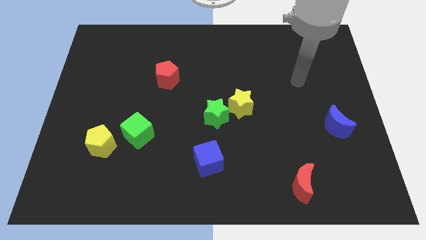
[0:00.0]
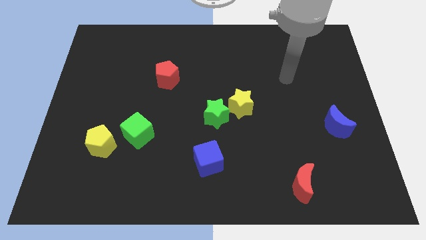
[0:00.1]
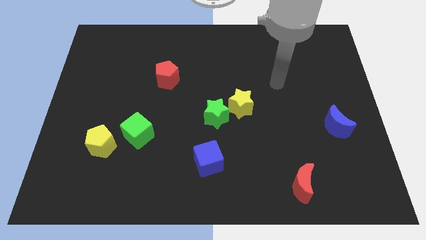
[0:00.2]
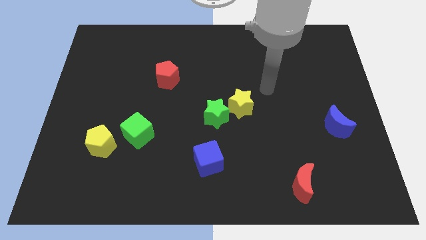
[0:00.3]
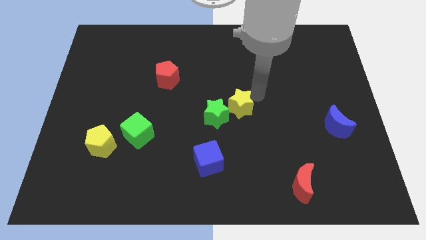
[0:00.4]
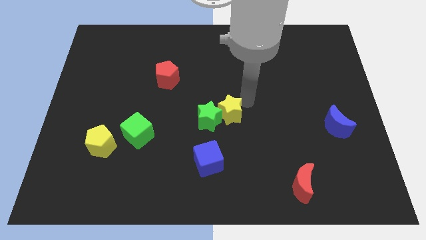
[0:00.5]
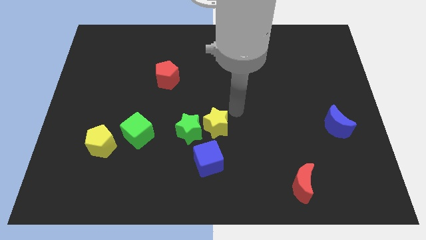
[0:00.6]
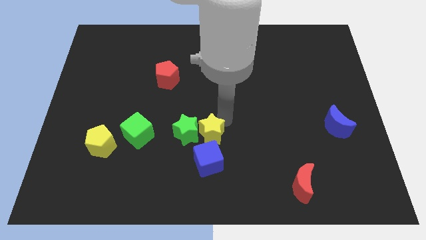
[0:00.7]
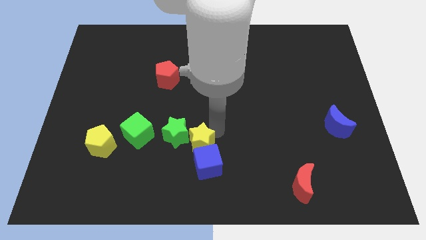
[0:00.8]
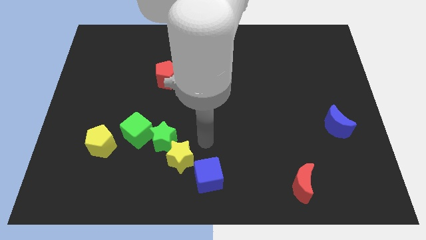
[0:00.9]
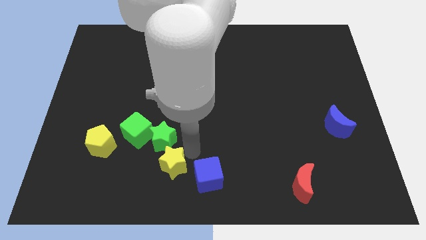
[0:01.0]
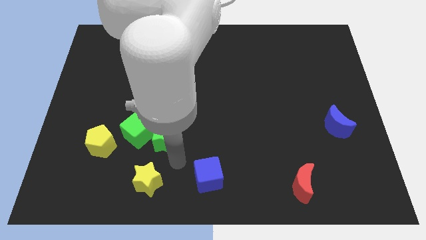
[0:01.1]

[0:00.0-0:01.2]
separate the green star from the yellow star

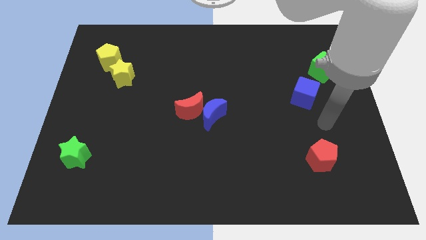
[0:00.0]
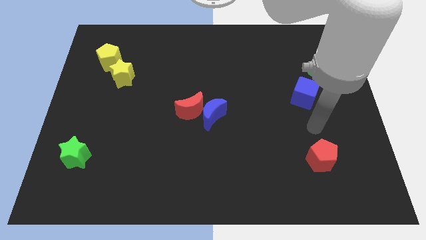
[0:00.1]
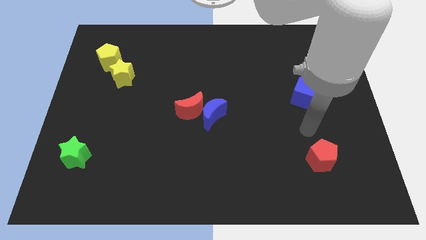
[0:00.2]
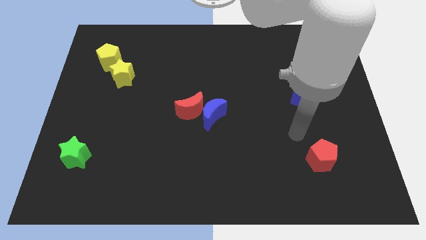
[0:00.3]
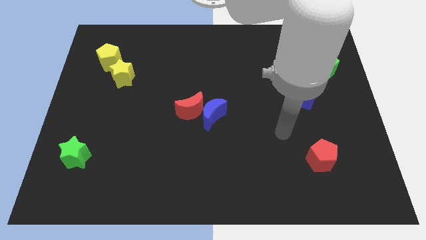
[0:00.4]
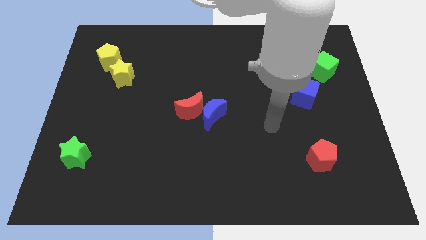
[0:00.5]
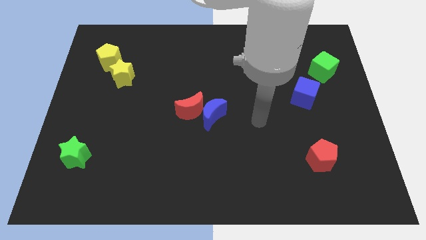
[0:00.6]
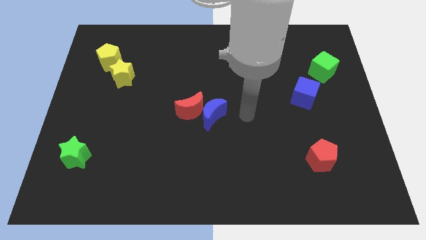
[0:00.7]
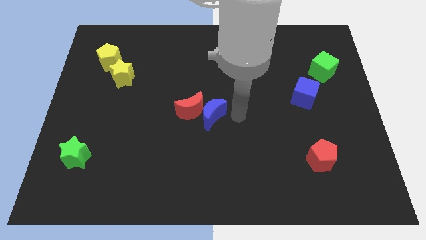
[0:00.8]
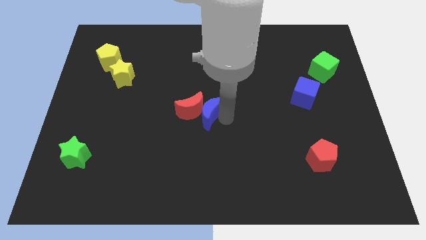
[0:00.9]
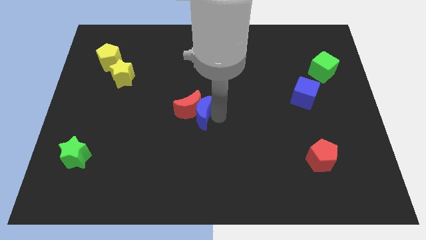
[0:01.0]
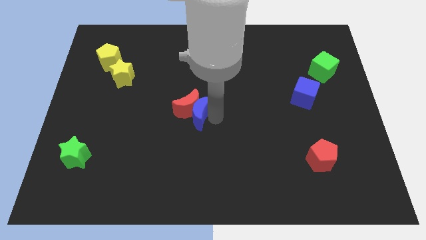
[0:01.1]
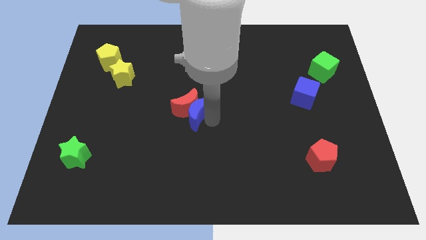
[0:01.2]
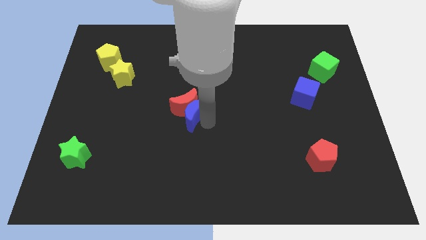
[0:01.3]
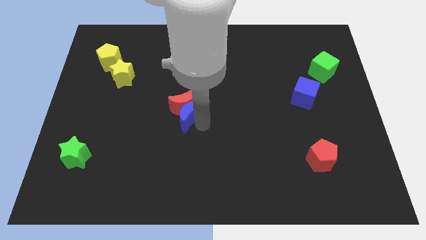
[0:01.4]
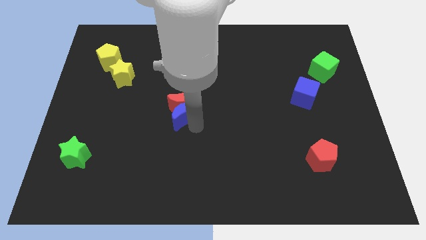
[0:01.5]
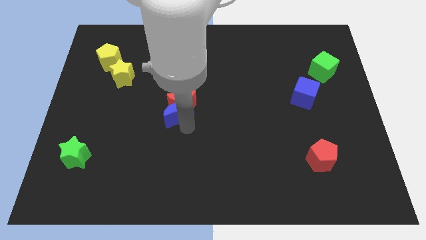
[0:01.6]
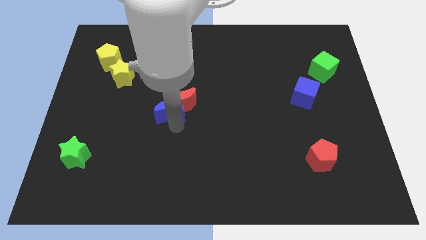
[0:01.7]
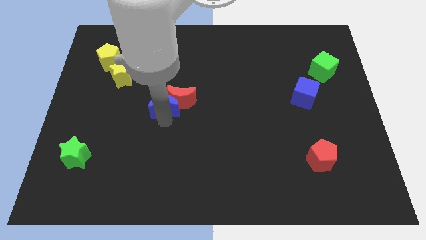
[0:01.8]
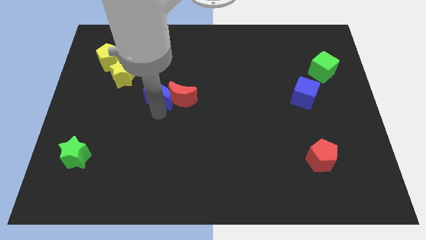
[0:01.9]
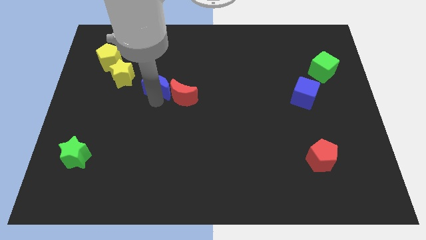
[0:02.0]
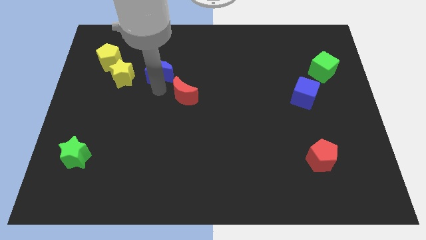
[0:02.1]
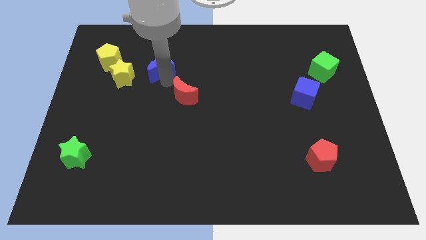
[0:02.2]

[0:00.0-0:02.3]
move the red moon away from the blue moon

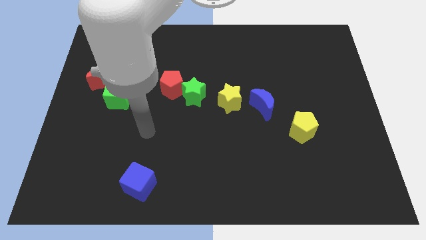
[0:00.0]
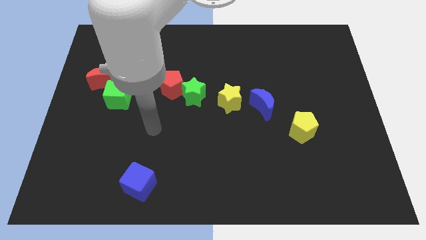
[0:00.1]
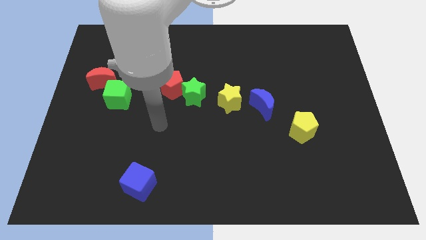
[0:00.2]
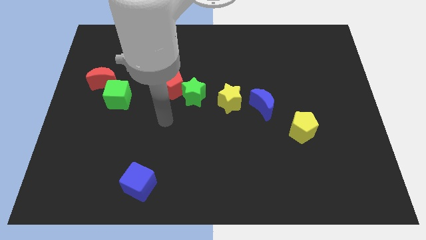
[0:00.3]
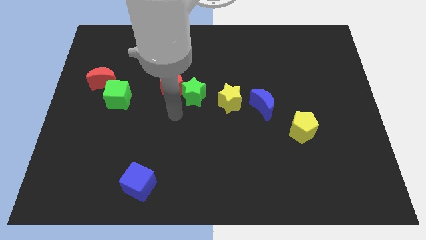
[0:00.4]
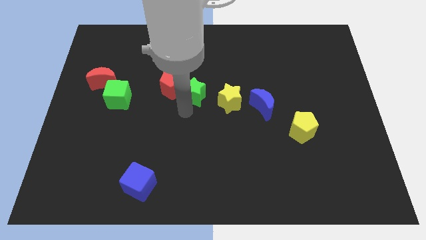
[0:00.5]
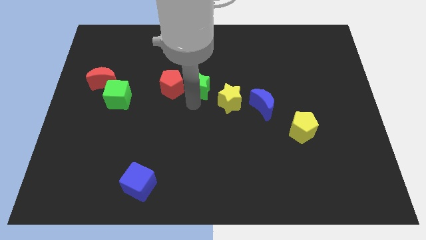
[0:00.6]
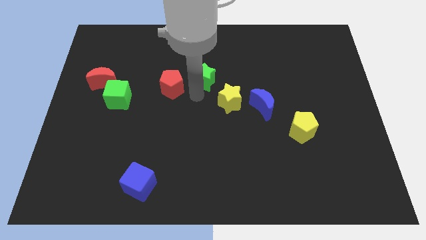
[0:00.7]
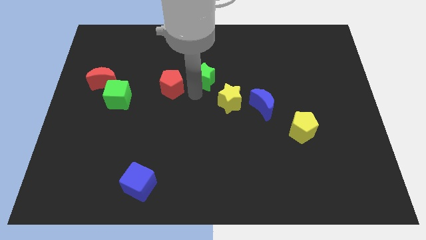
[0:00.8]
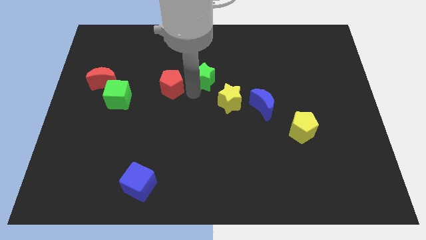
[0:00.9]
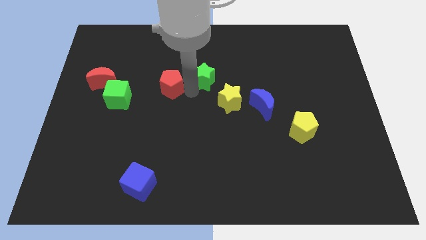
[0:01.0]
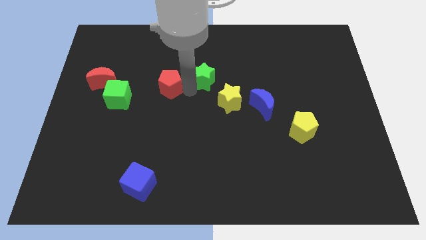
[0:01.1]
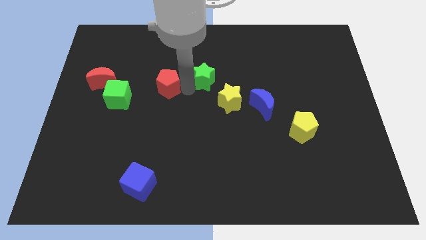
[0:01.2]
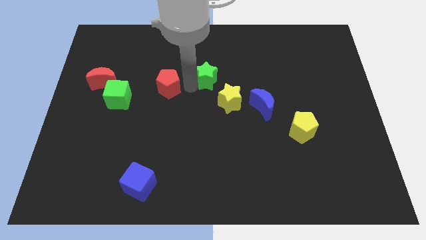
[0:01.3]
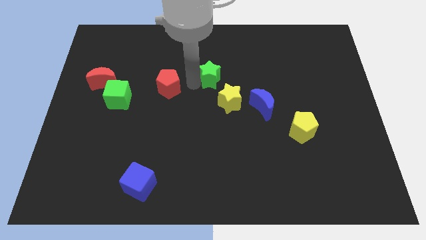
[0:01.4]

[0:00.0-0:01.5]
separate the red pentagon from the green star

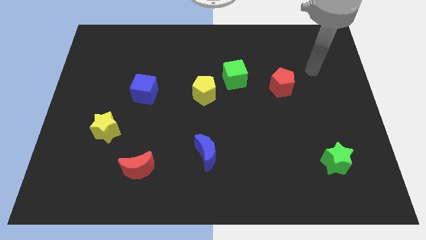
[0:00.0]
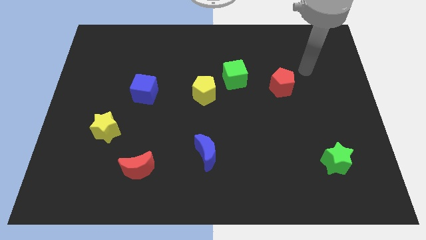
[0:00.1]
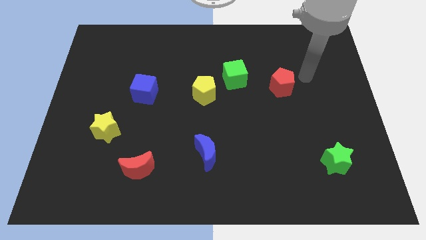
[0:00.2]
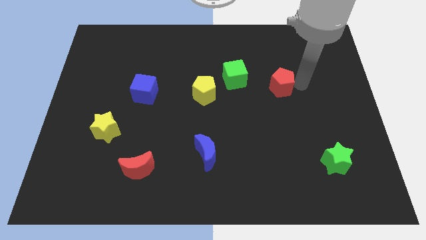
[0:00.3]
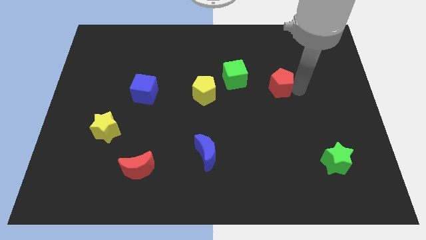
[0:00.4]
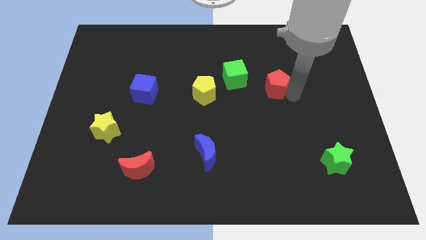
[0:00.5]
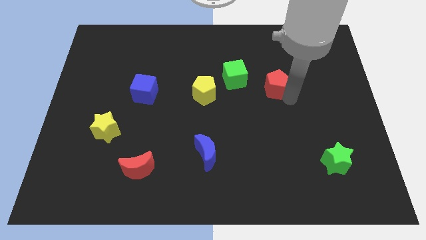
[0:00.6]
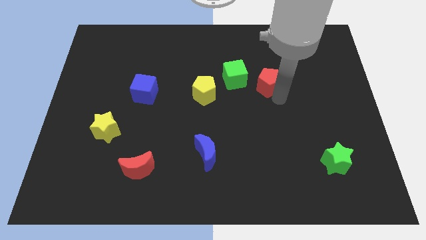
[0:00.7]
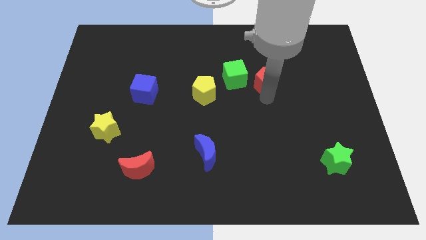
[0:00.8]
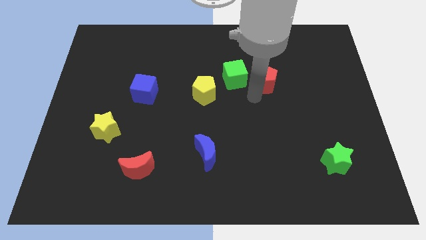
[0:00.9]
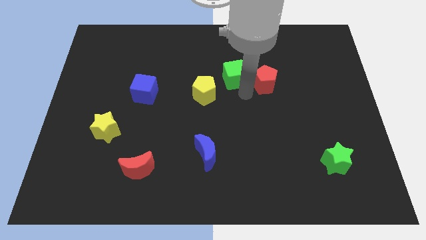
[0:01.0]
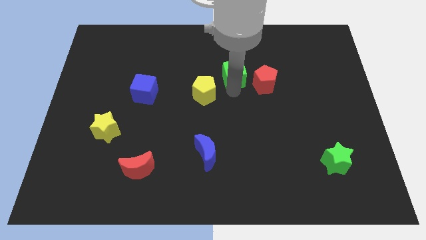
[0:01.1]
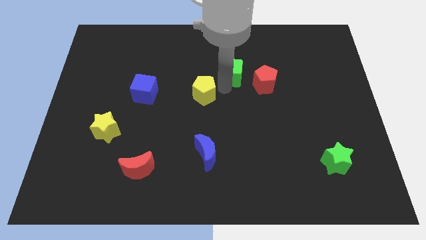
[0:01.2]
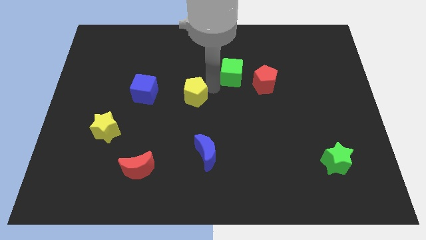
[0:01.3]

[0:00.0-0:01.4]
pull the green cube apart from the yellow pentagon

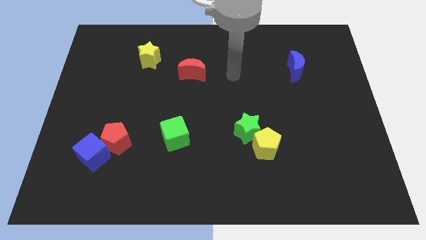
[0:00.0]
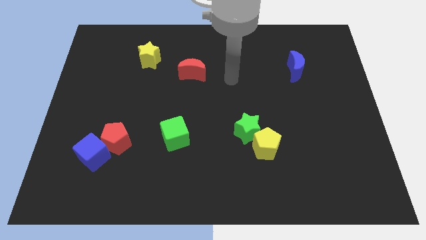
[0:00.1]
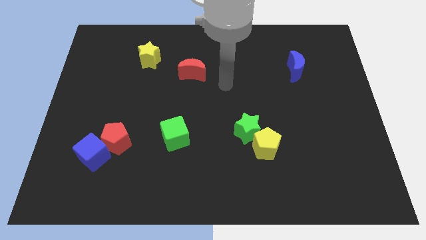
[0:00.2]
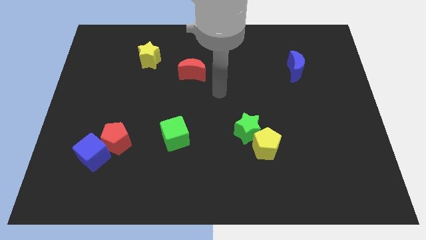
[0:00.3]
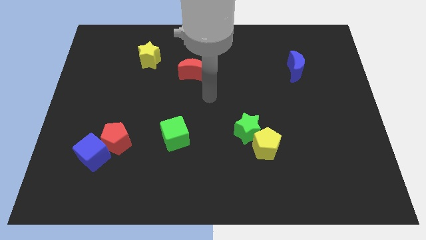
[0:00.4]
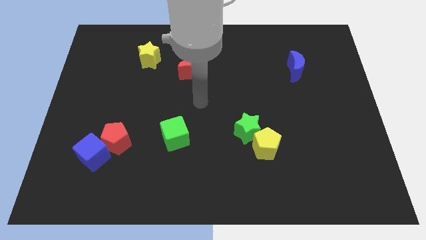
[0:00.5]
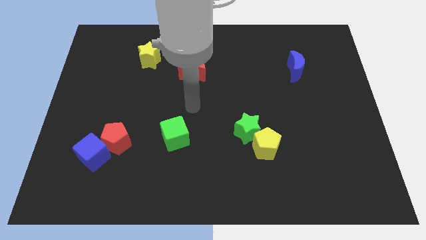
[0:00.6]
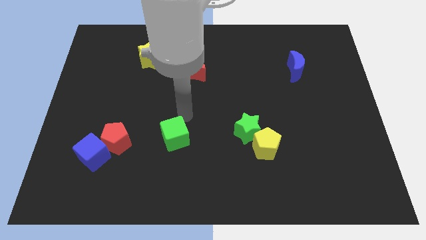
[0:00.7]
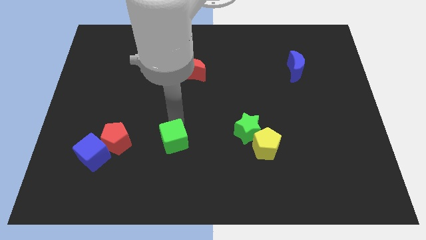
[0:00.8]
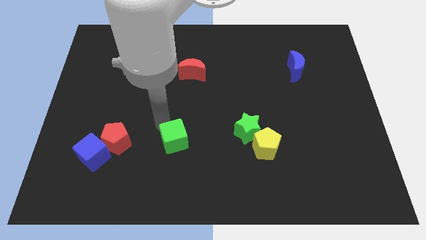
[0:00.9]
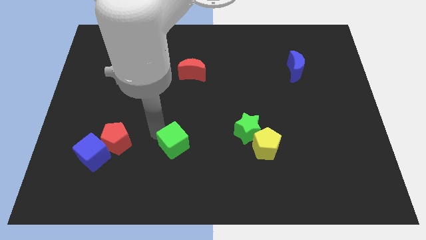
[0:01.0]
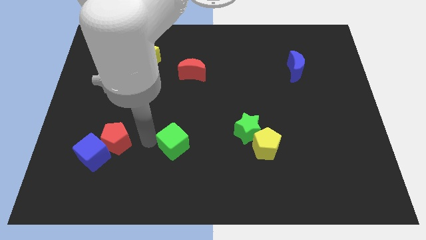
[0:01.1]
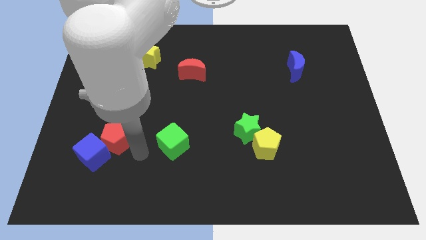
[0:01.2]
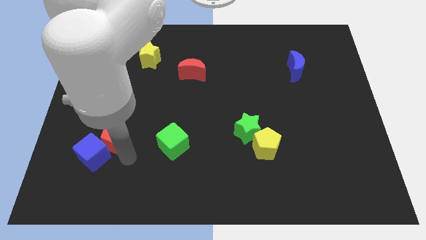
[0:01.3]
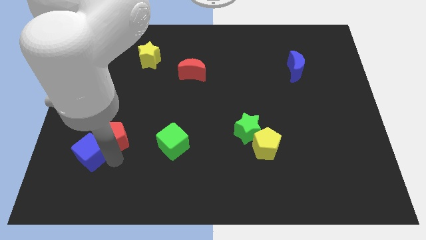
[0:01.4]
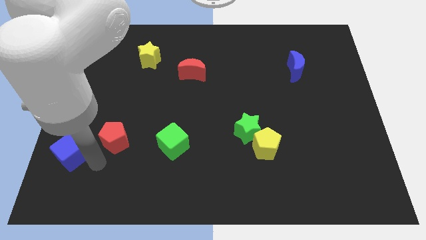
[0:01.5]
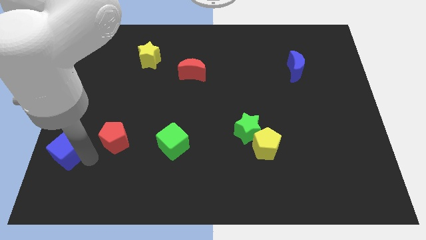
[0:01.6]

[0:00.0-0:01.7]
move the red pentagon away from the blue cube

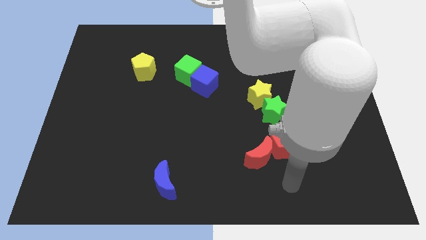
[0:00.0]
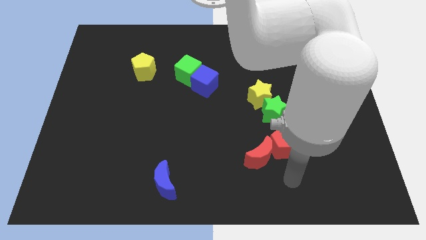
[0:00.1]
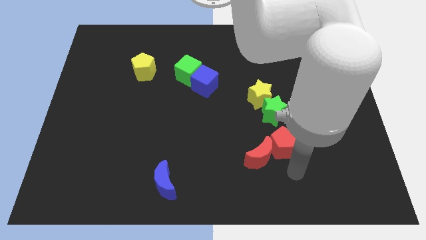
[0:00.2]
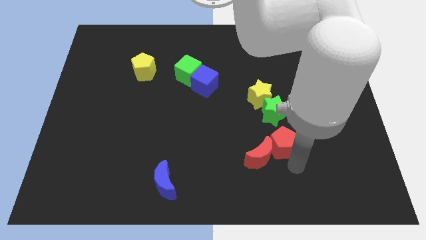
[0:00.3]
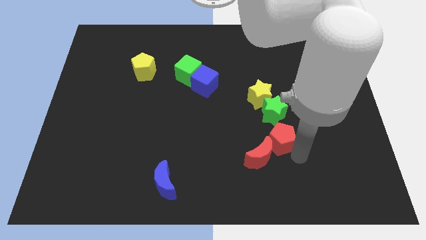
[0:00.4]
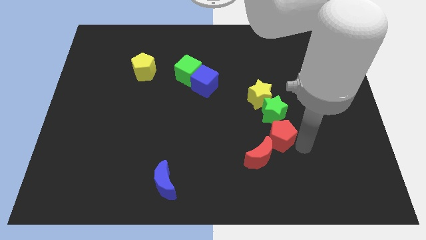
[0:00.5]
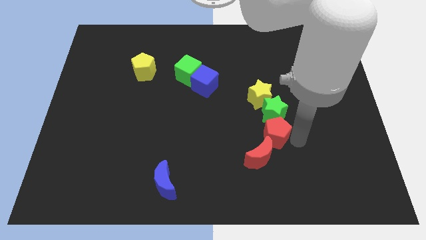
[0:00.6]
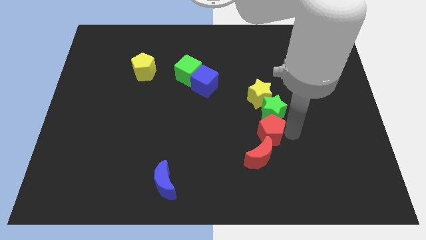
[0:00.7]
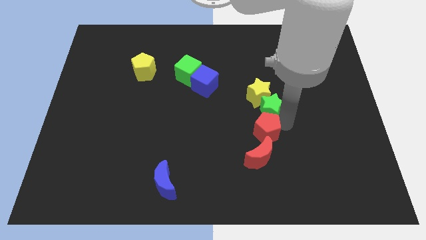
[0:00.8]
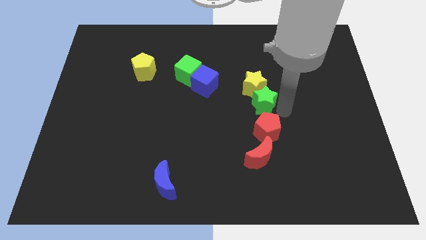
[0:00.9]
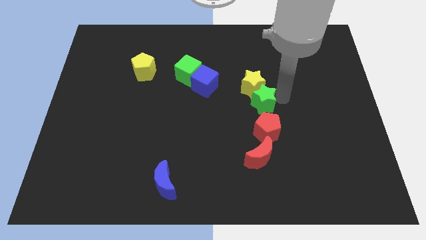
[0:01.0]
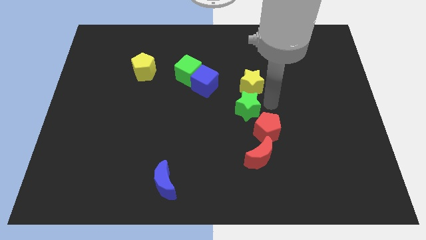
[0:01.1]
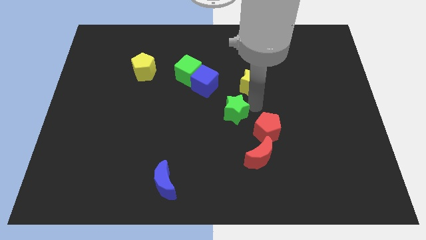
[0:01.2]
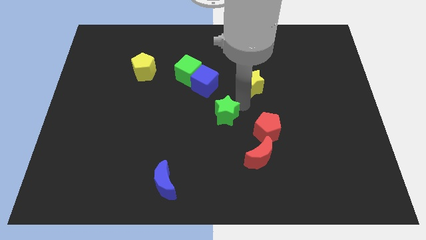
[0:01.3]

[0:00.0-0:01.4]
pull the yellow star apart from the green star

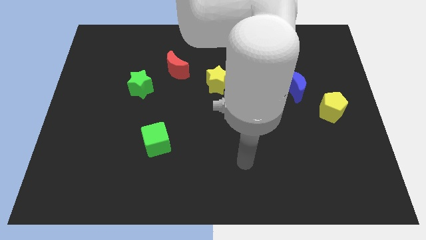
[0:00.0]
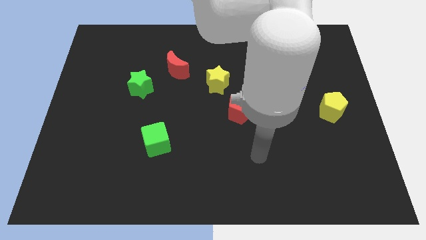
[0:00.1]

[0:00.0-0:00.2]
pull the blue moon apart from the yellow pentagon
